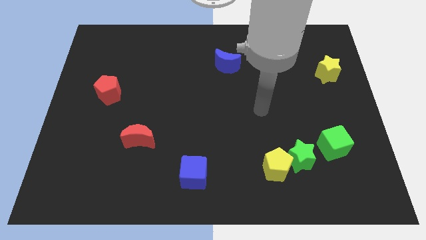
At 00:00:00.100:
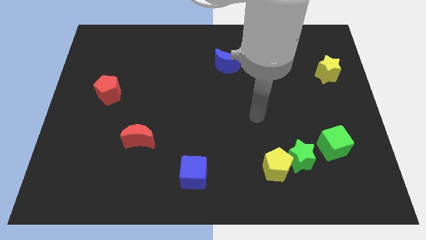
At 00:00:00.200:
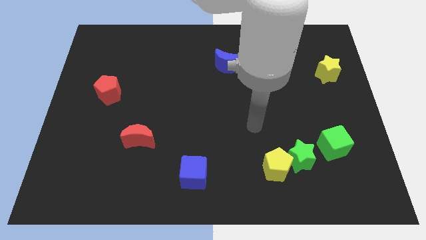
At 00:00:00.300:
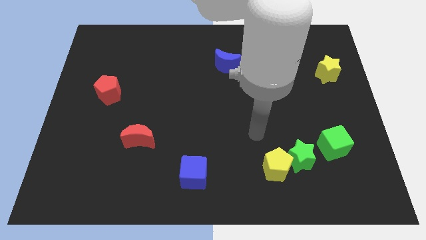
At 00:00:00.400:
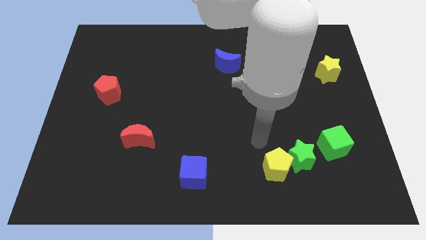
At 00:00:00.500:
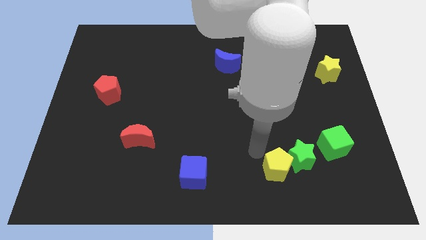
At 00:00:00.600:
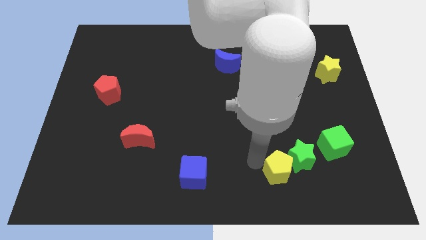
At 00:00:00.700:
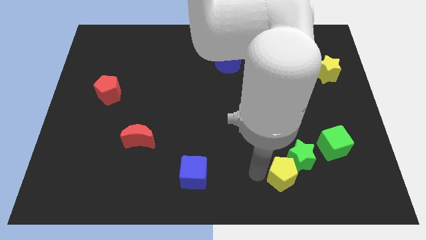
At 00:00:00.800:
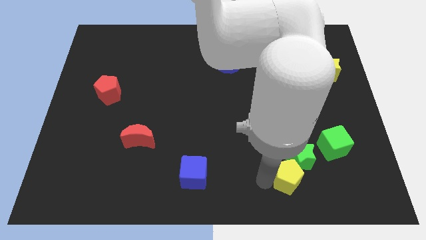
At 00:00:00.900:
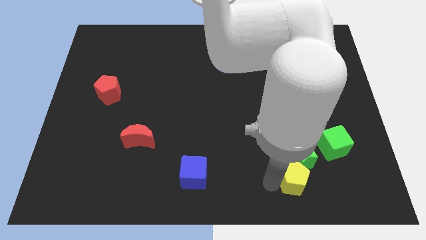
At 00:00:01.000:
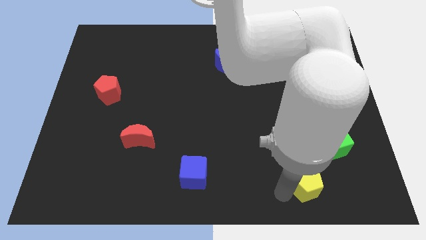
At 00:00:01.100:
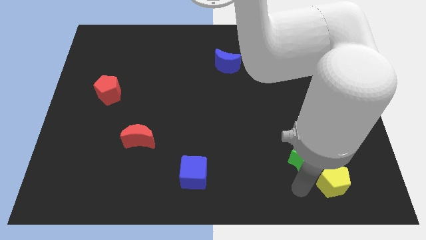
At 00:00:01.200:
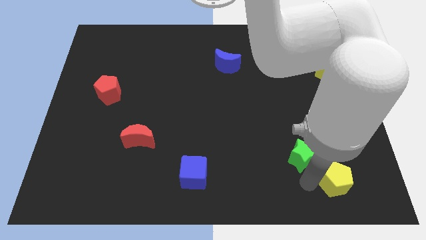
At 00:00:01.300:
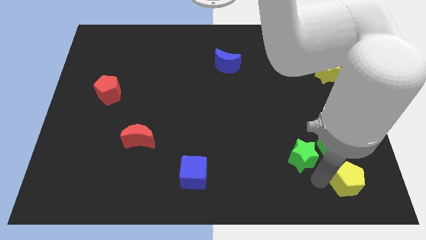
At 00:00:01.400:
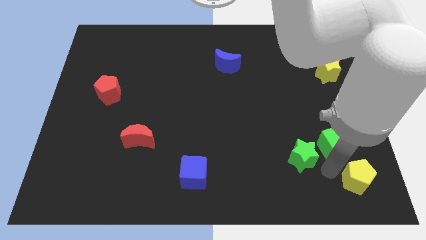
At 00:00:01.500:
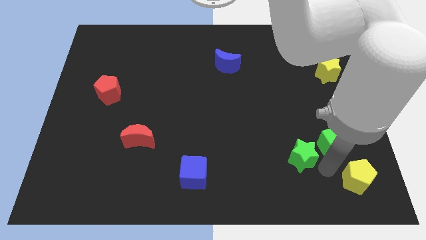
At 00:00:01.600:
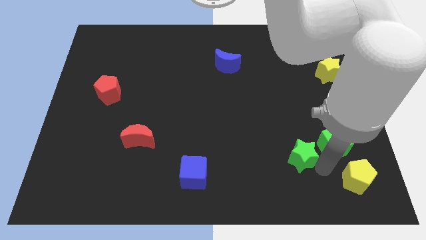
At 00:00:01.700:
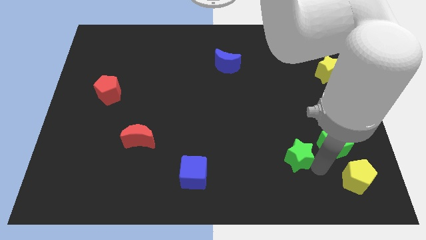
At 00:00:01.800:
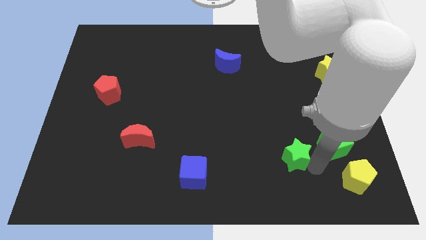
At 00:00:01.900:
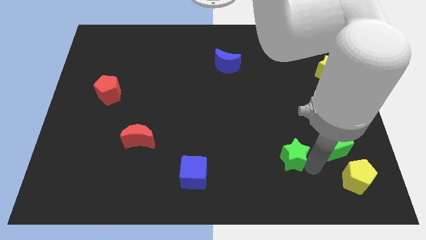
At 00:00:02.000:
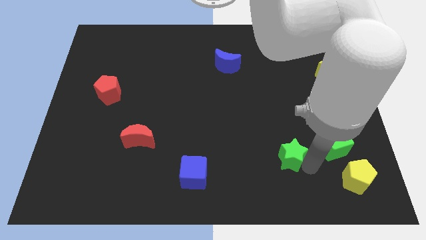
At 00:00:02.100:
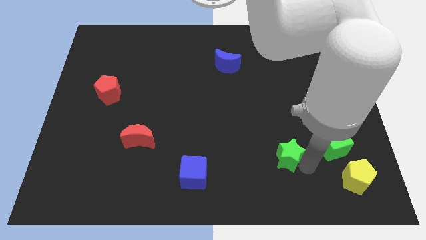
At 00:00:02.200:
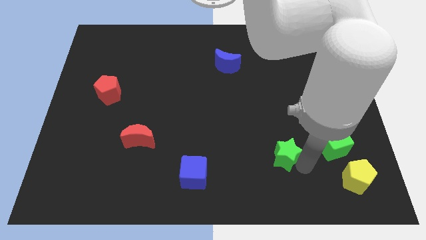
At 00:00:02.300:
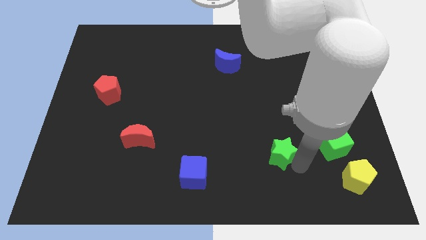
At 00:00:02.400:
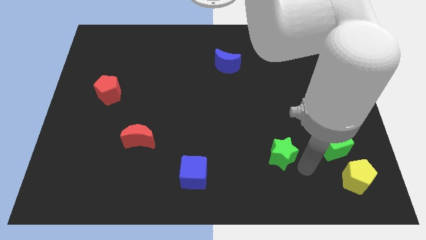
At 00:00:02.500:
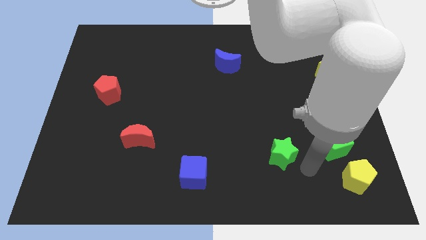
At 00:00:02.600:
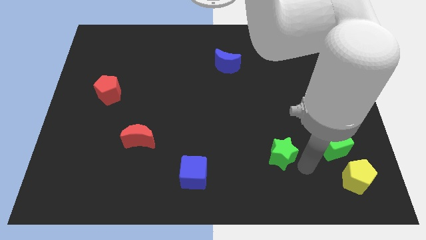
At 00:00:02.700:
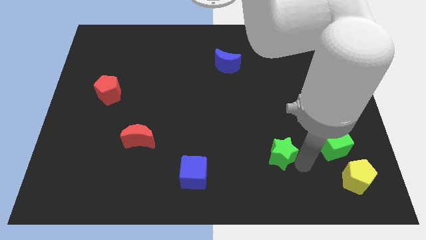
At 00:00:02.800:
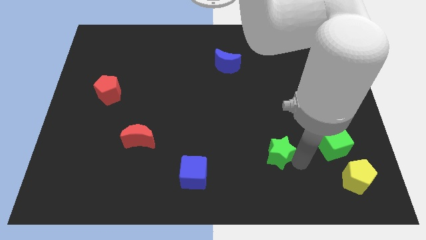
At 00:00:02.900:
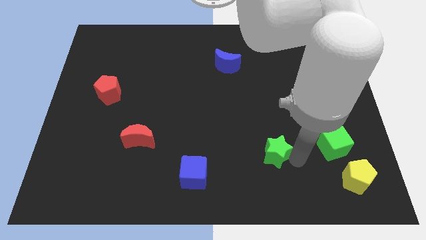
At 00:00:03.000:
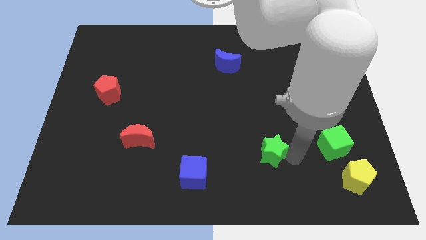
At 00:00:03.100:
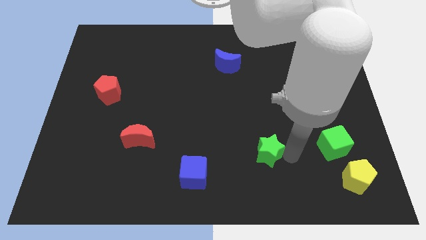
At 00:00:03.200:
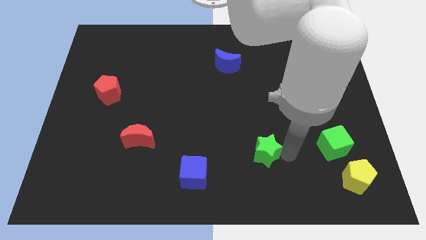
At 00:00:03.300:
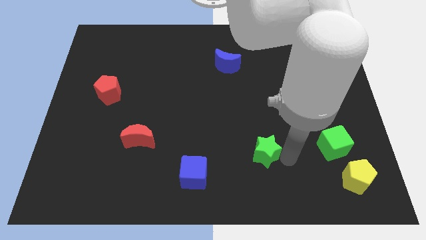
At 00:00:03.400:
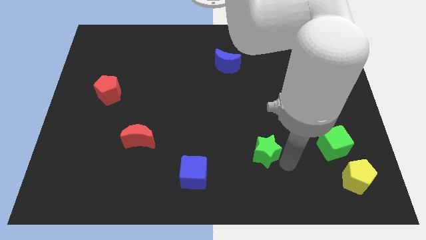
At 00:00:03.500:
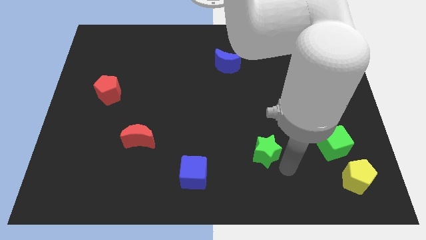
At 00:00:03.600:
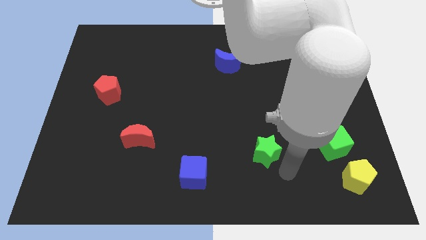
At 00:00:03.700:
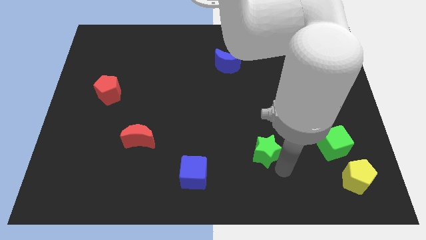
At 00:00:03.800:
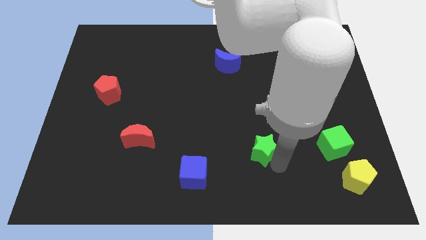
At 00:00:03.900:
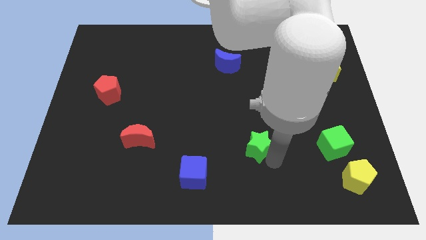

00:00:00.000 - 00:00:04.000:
slide the green star slightly up and to the left diagonally

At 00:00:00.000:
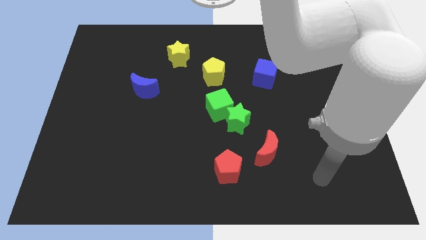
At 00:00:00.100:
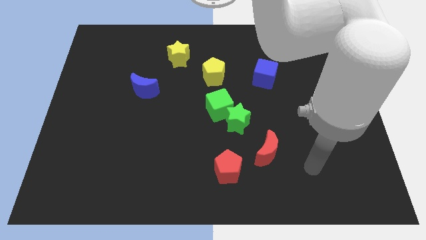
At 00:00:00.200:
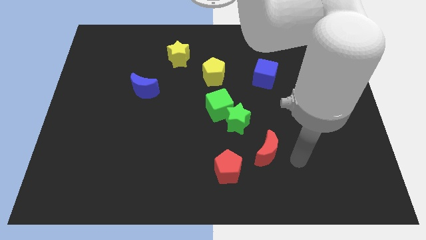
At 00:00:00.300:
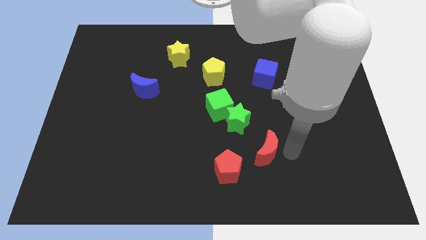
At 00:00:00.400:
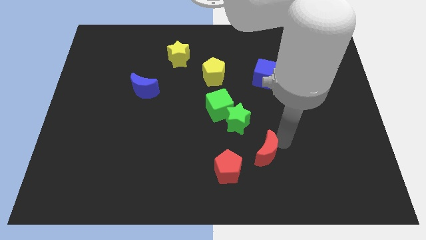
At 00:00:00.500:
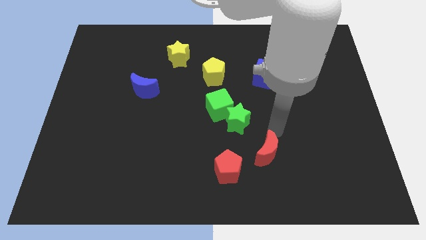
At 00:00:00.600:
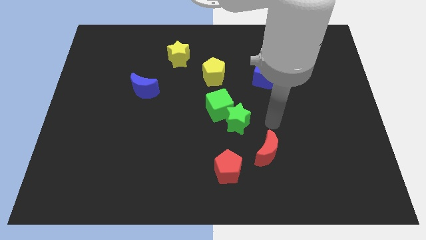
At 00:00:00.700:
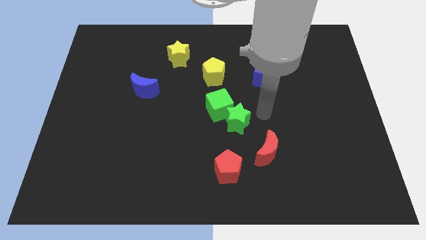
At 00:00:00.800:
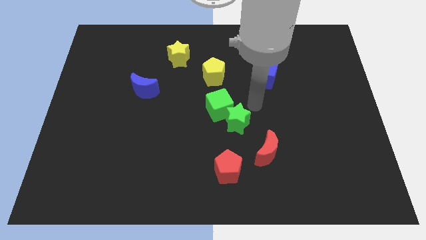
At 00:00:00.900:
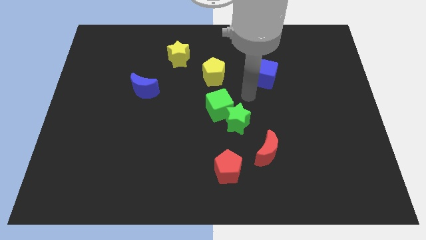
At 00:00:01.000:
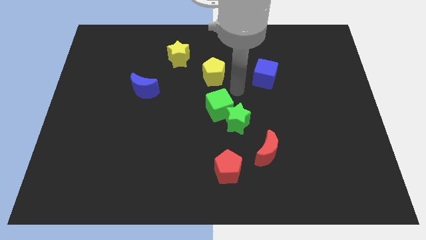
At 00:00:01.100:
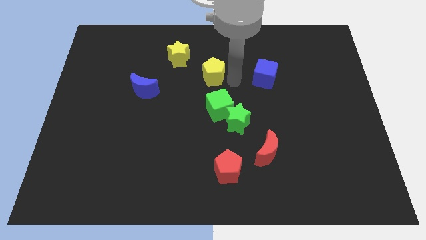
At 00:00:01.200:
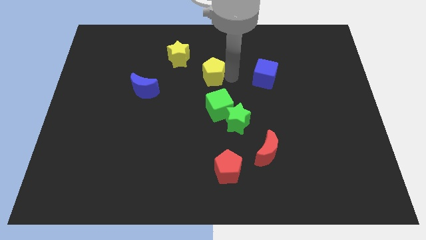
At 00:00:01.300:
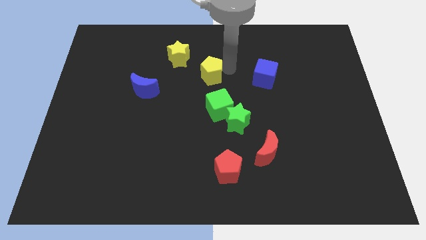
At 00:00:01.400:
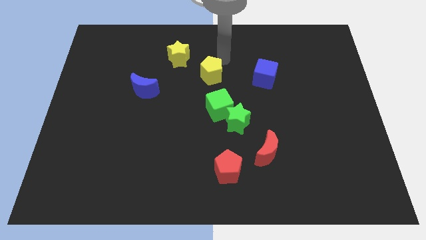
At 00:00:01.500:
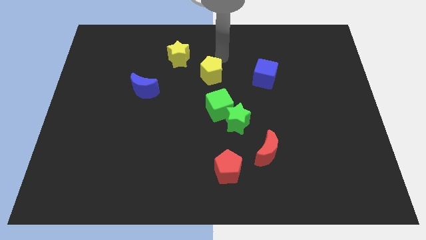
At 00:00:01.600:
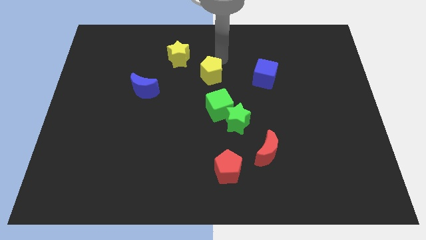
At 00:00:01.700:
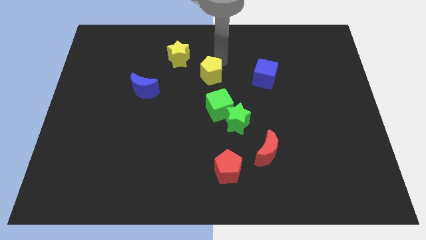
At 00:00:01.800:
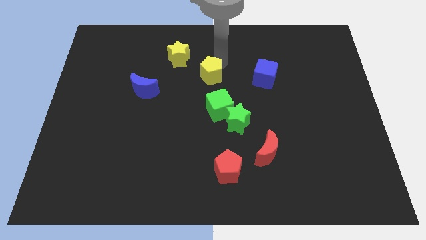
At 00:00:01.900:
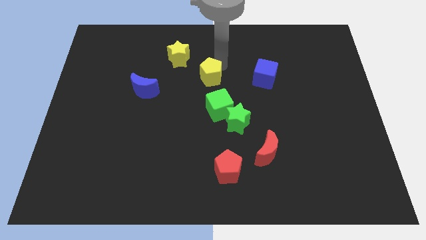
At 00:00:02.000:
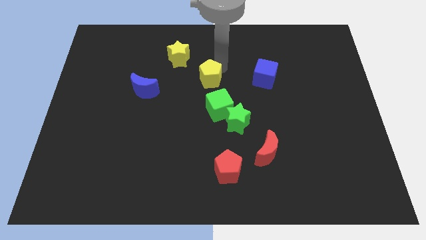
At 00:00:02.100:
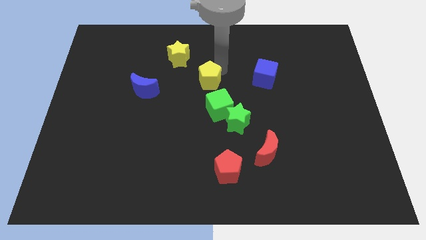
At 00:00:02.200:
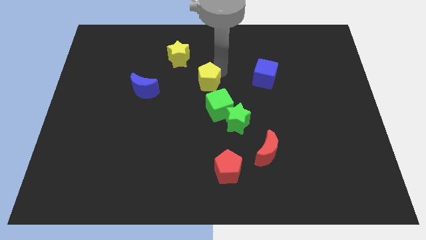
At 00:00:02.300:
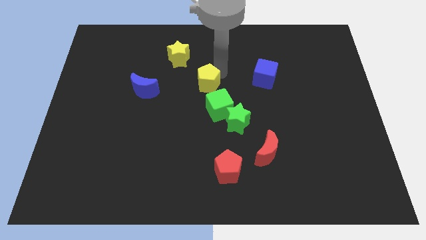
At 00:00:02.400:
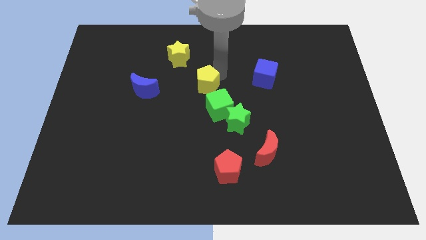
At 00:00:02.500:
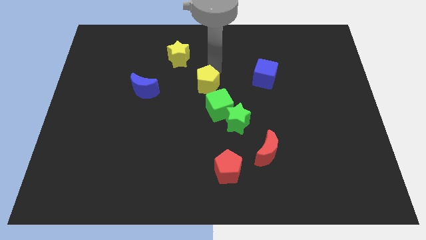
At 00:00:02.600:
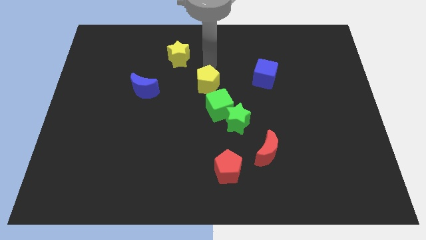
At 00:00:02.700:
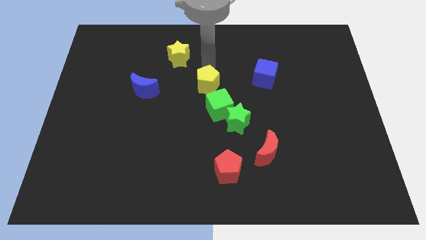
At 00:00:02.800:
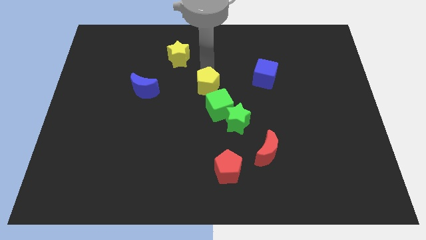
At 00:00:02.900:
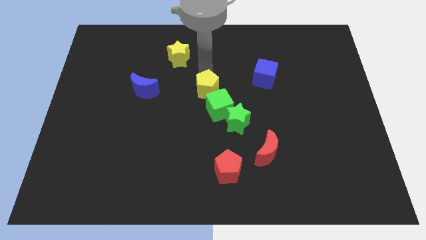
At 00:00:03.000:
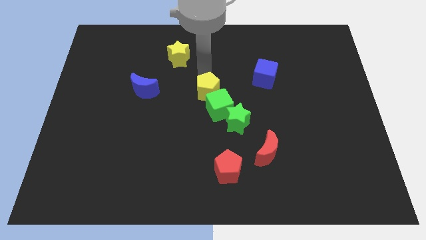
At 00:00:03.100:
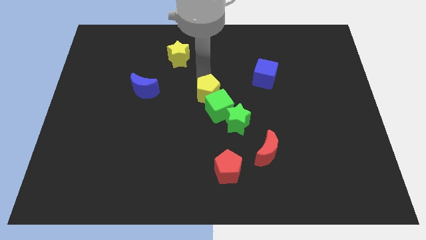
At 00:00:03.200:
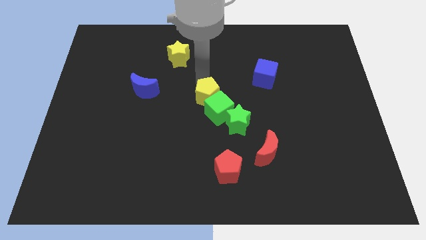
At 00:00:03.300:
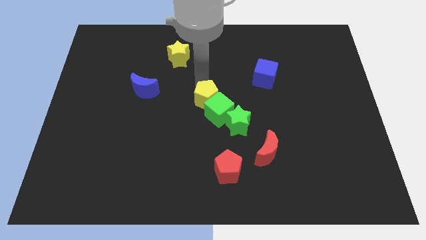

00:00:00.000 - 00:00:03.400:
slightly slide the yellow pentagon downwards
